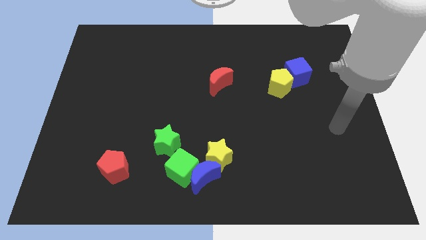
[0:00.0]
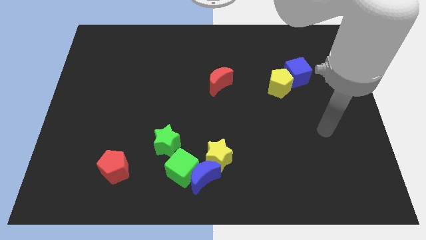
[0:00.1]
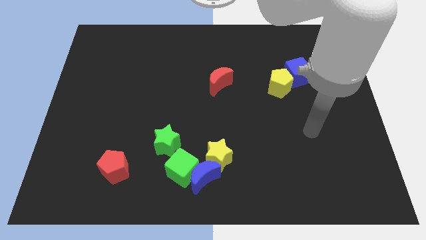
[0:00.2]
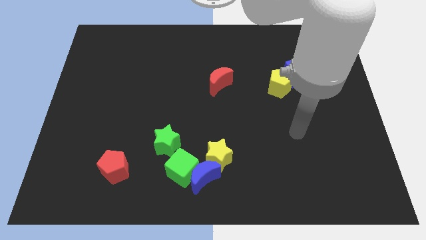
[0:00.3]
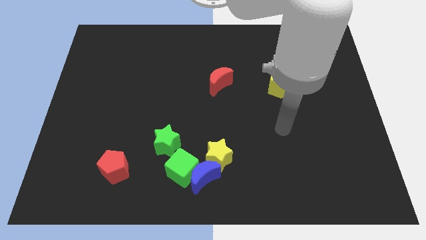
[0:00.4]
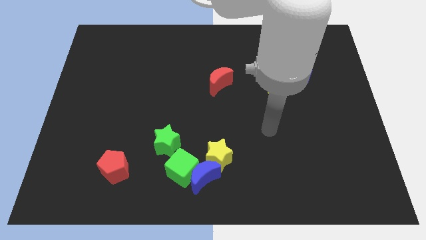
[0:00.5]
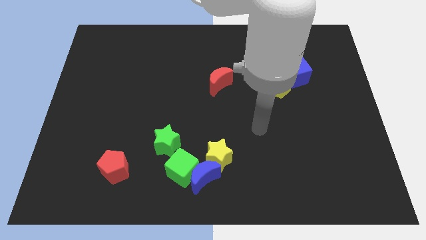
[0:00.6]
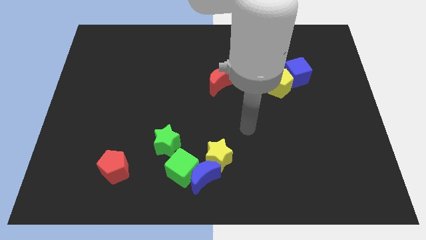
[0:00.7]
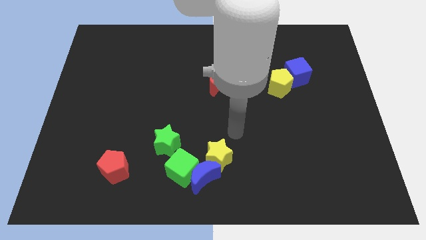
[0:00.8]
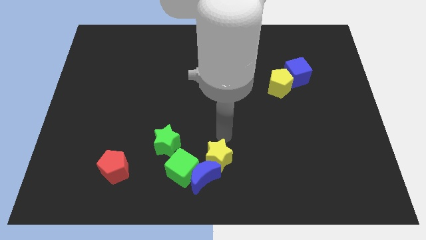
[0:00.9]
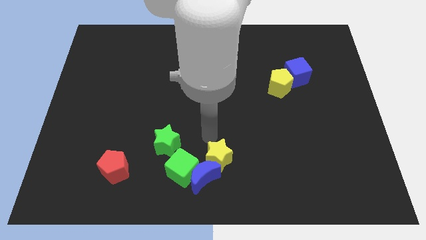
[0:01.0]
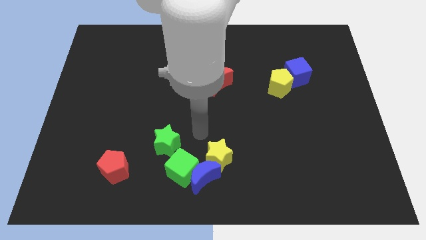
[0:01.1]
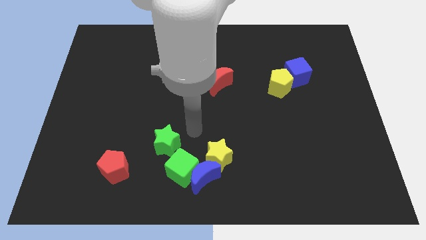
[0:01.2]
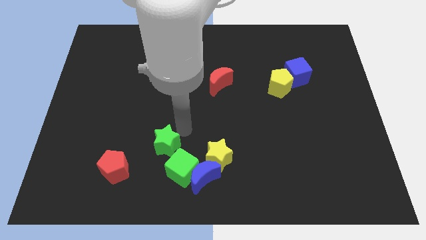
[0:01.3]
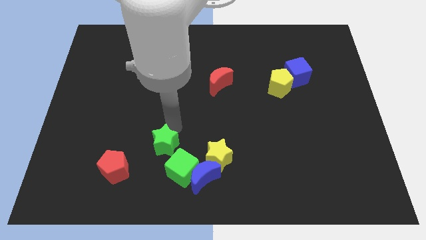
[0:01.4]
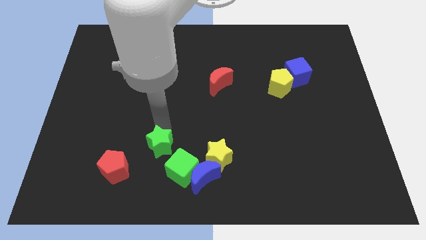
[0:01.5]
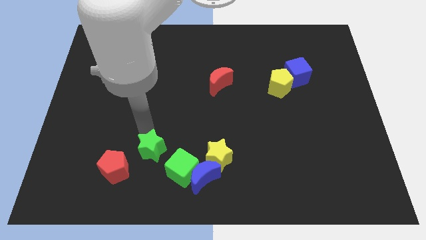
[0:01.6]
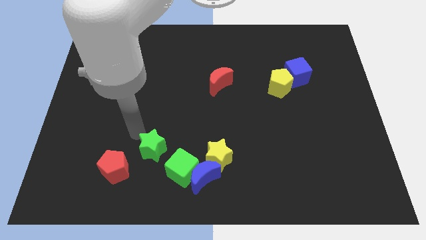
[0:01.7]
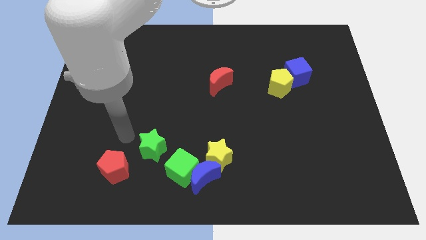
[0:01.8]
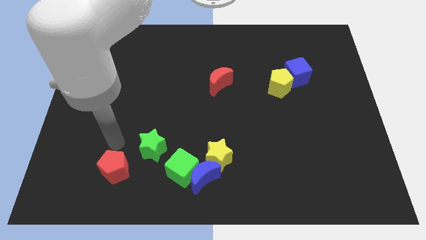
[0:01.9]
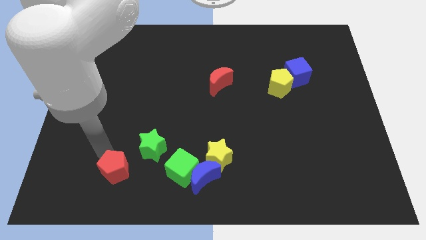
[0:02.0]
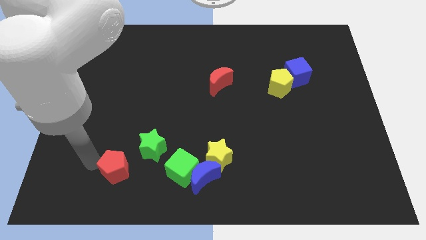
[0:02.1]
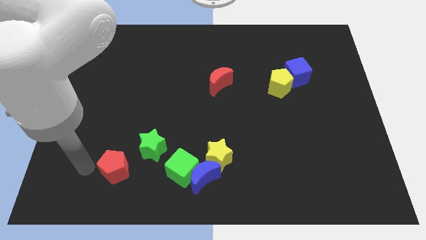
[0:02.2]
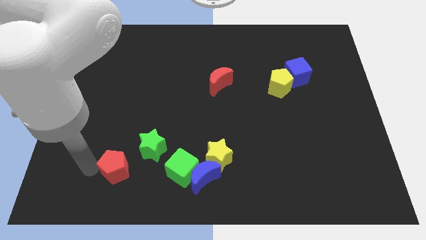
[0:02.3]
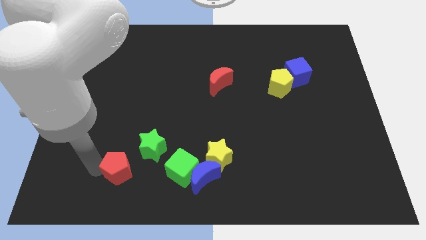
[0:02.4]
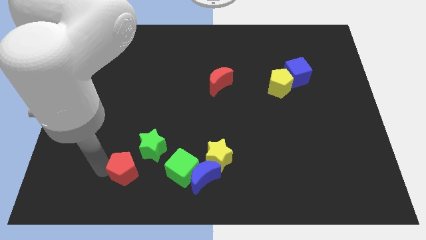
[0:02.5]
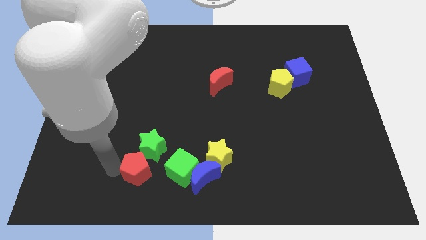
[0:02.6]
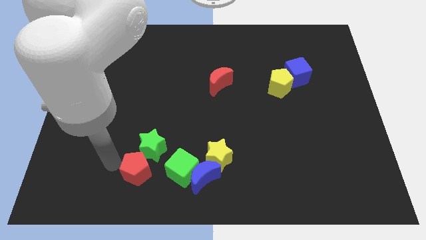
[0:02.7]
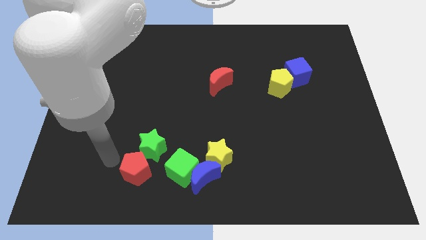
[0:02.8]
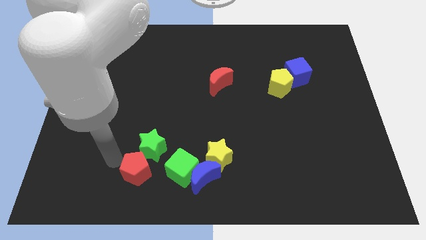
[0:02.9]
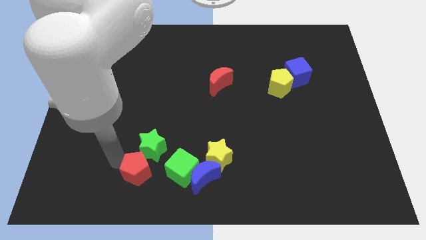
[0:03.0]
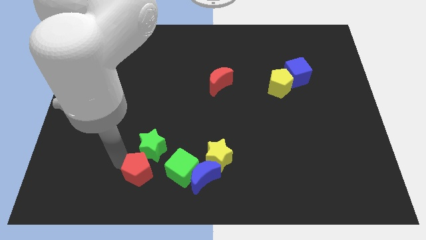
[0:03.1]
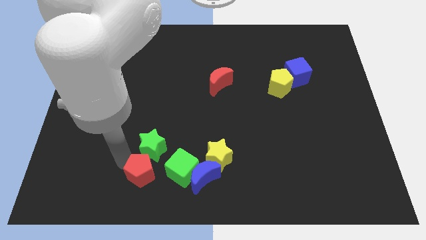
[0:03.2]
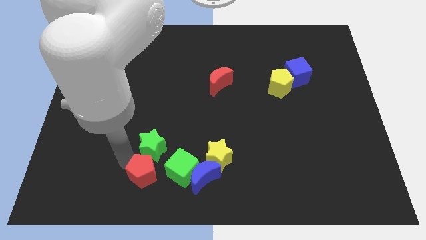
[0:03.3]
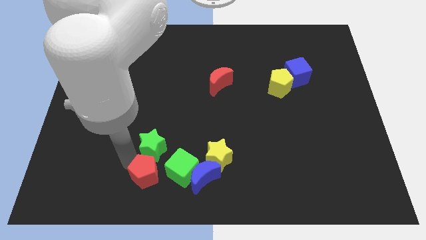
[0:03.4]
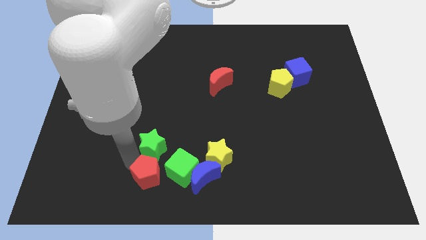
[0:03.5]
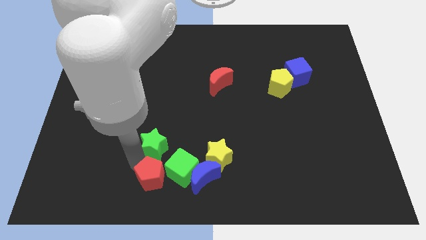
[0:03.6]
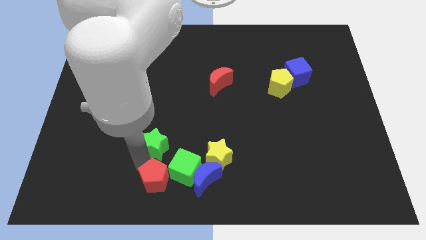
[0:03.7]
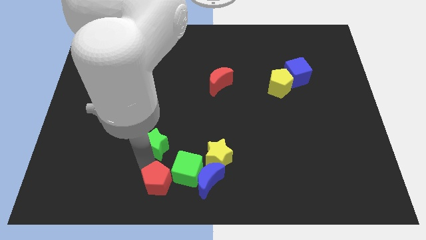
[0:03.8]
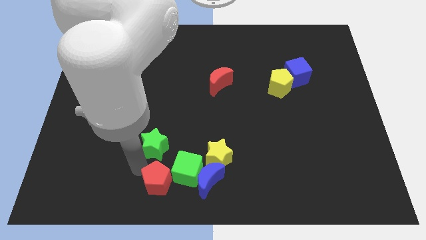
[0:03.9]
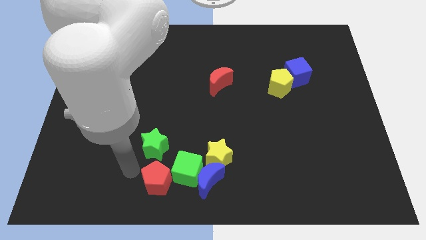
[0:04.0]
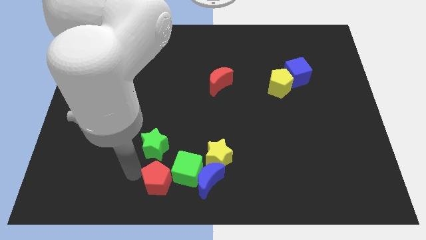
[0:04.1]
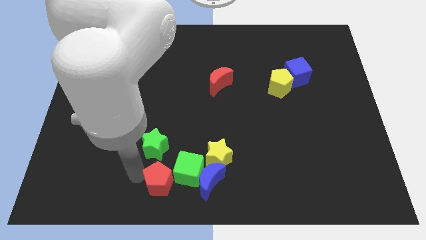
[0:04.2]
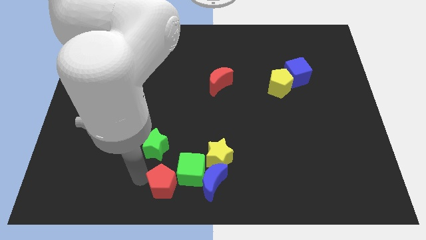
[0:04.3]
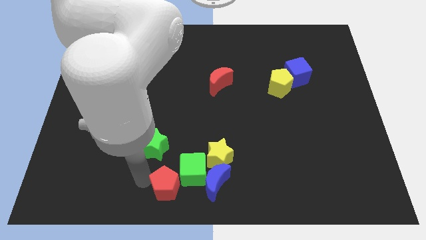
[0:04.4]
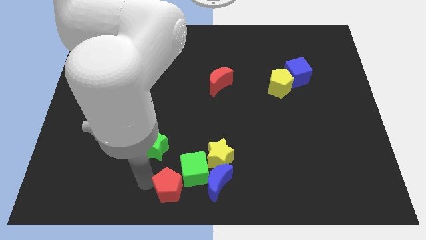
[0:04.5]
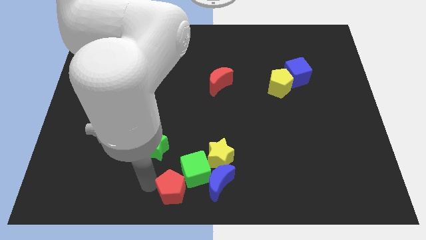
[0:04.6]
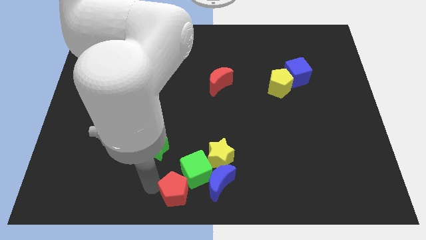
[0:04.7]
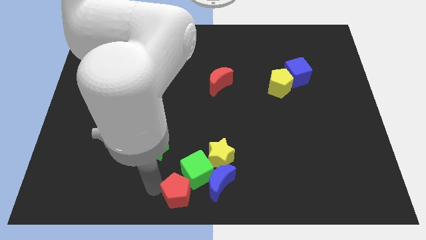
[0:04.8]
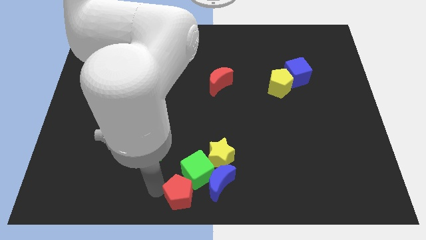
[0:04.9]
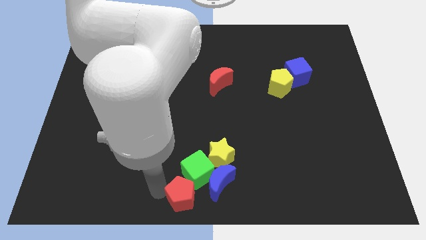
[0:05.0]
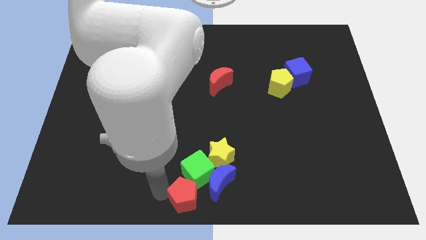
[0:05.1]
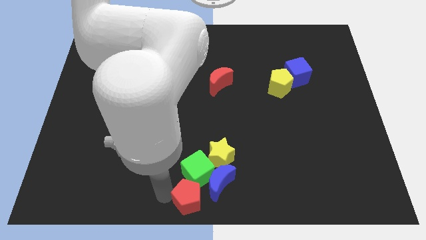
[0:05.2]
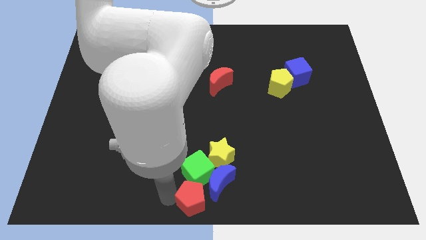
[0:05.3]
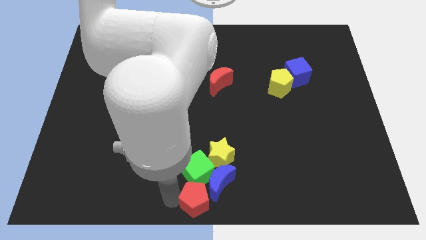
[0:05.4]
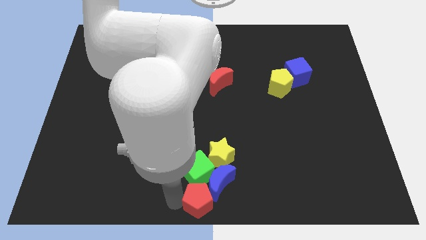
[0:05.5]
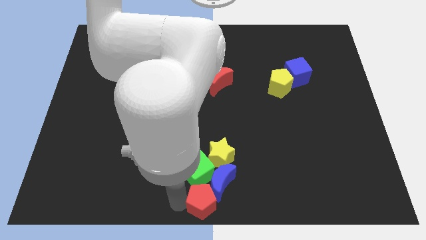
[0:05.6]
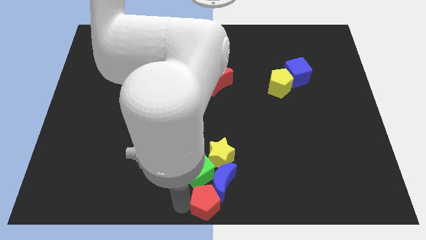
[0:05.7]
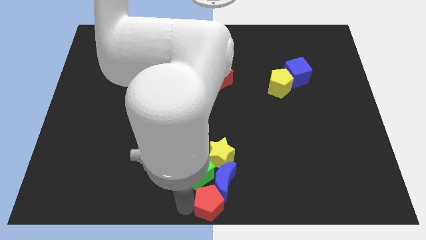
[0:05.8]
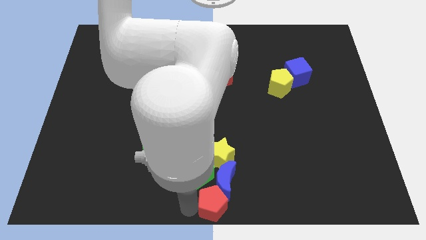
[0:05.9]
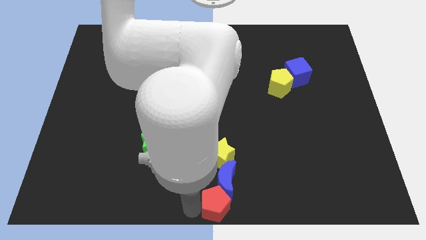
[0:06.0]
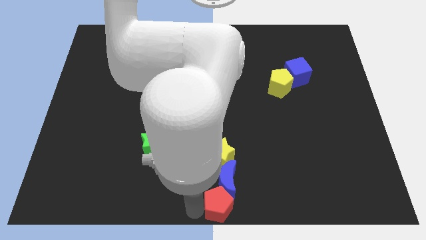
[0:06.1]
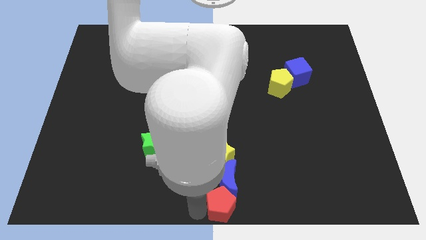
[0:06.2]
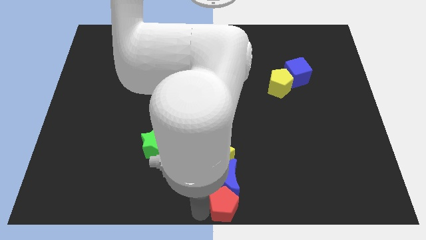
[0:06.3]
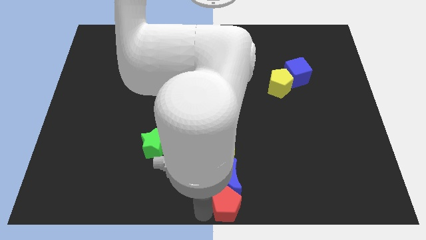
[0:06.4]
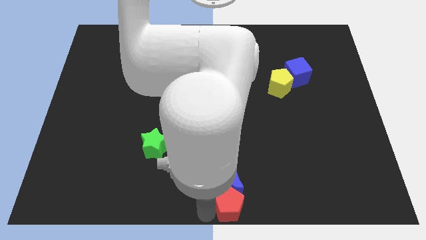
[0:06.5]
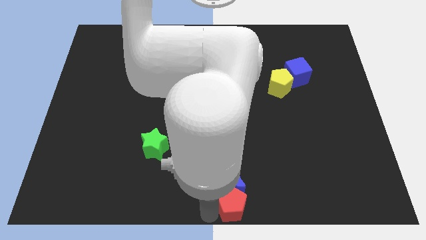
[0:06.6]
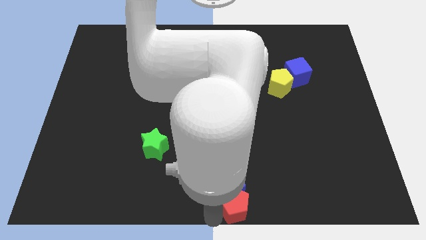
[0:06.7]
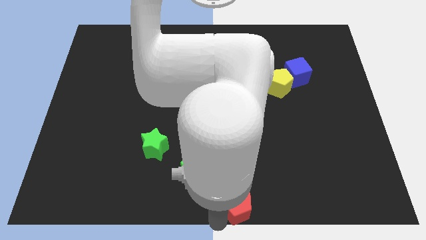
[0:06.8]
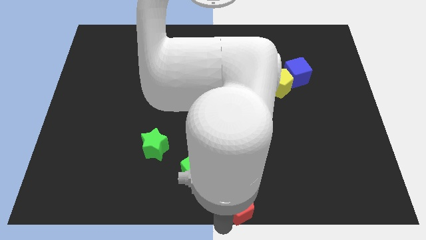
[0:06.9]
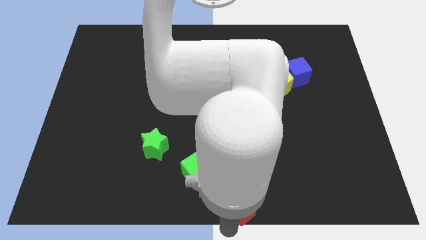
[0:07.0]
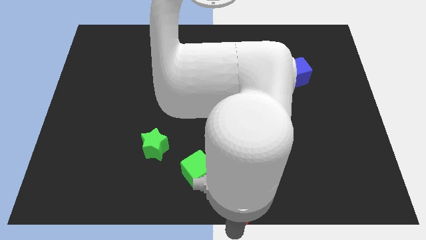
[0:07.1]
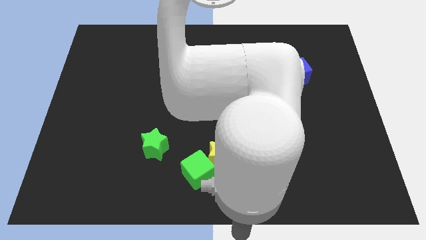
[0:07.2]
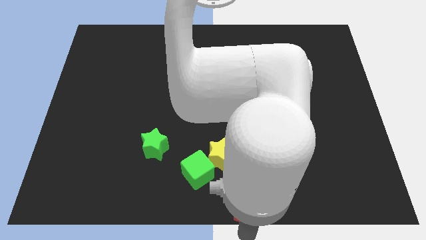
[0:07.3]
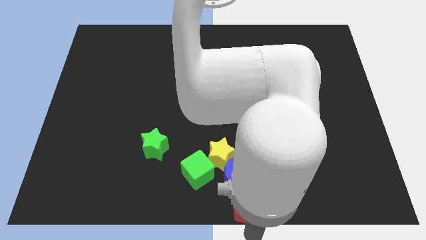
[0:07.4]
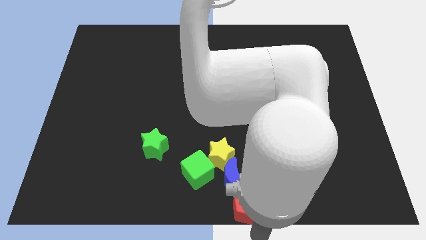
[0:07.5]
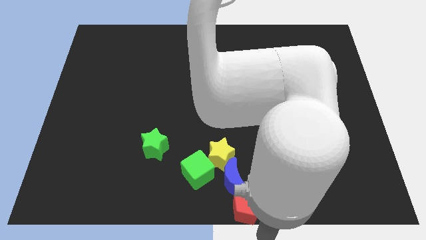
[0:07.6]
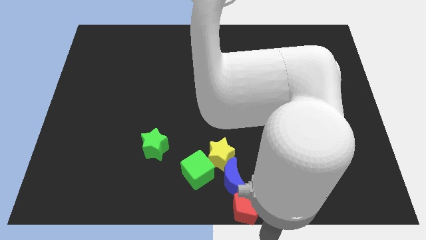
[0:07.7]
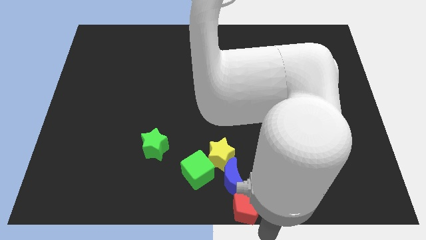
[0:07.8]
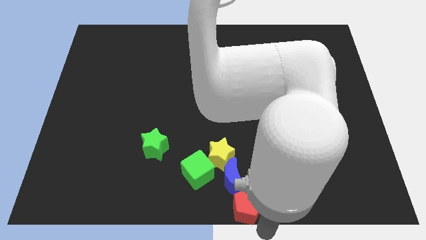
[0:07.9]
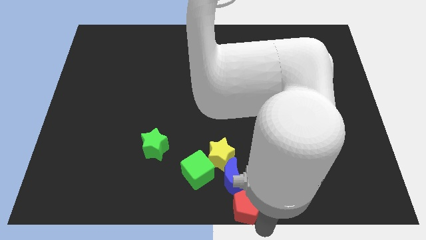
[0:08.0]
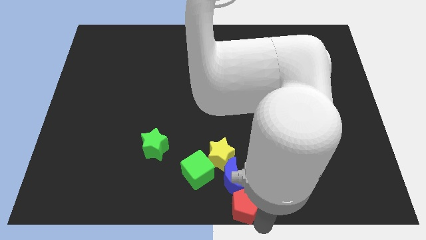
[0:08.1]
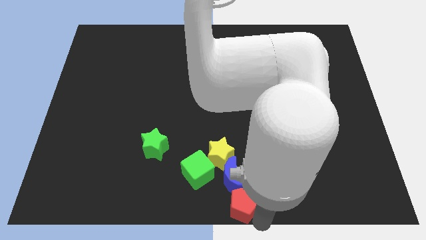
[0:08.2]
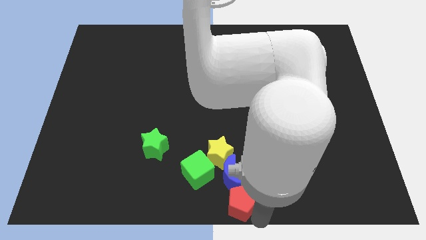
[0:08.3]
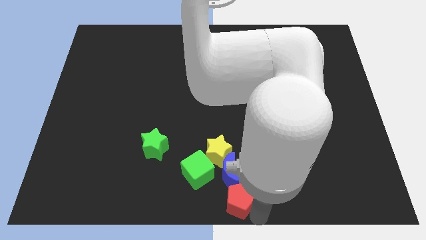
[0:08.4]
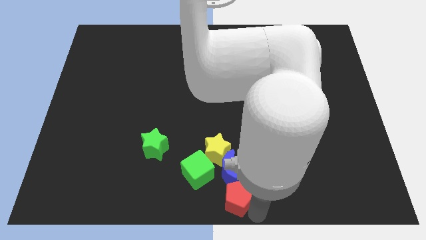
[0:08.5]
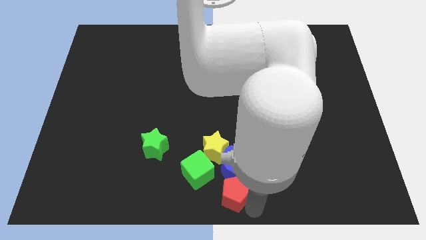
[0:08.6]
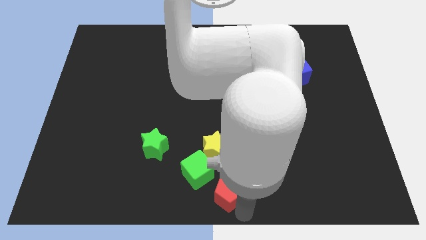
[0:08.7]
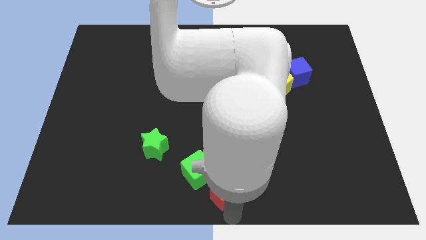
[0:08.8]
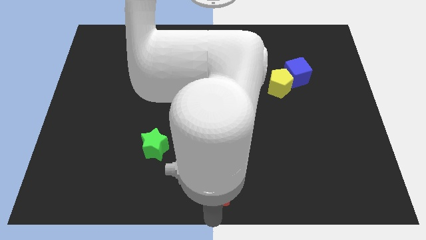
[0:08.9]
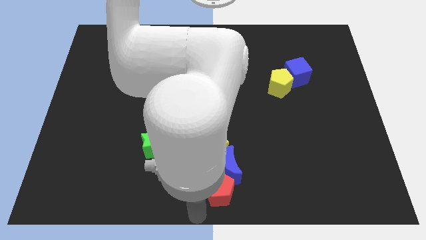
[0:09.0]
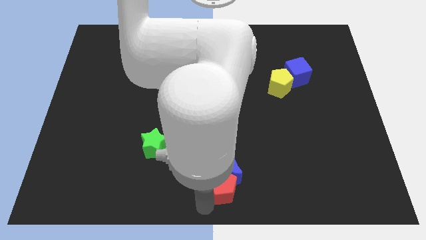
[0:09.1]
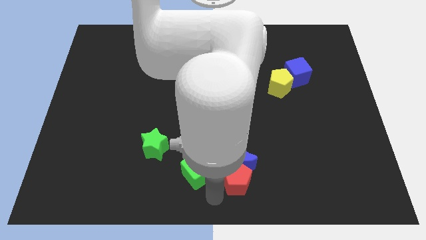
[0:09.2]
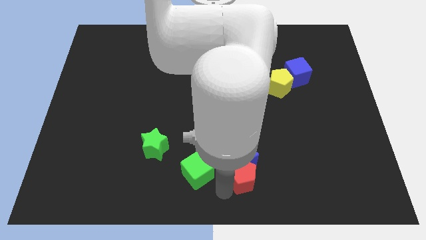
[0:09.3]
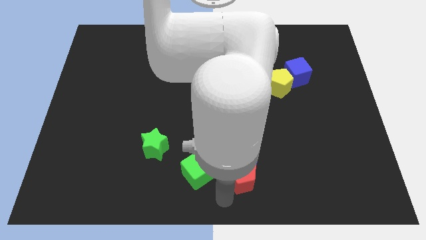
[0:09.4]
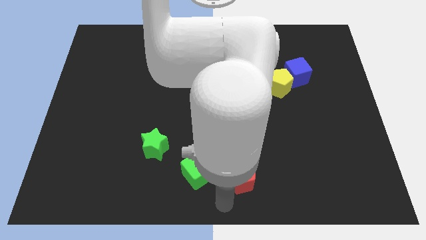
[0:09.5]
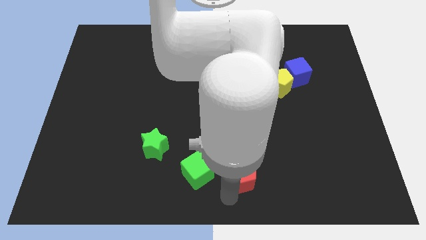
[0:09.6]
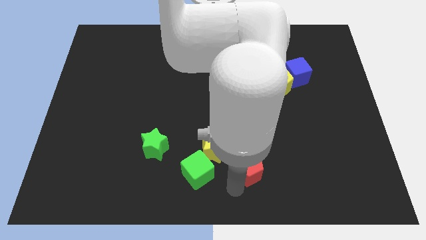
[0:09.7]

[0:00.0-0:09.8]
push the red pentagon to the right side of the yellow star
